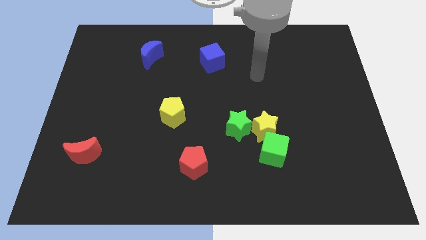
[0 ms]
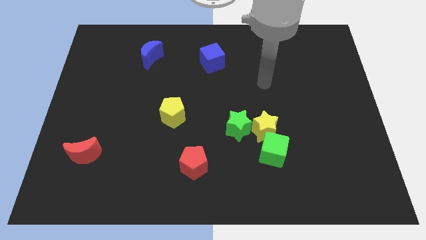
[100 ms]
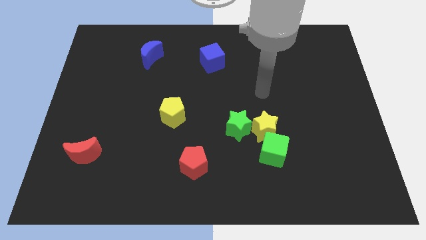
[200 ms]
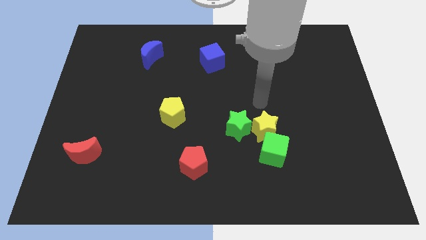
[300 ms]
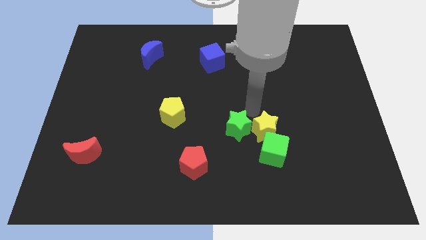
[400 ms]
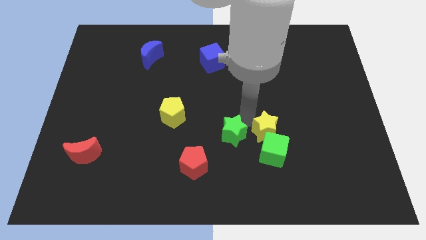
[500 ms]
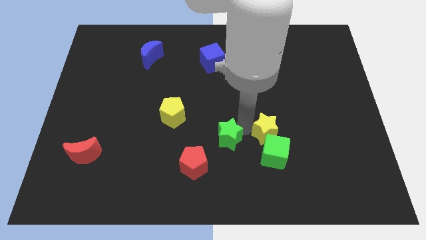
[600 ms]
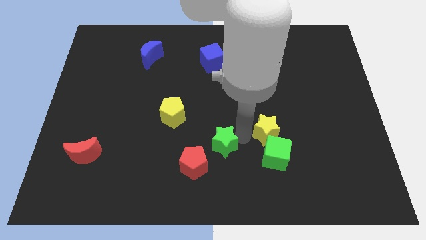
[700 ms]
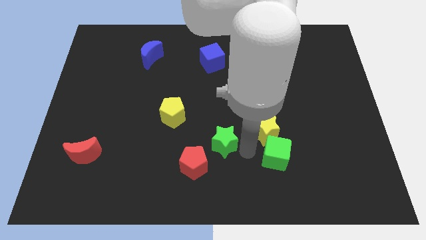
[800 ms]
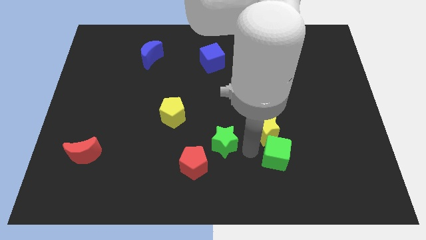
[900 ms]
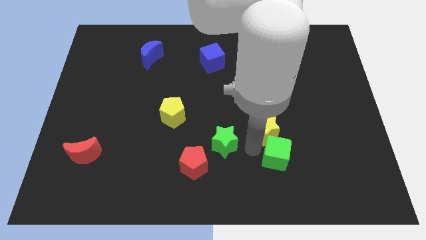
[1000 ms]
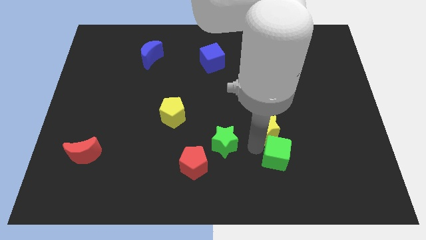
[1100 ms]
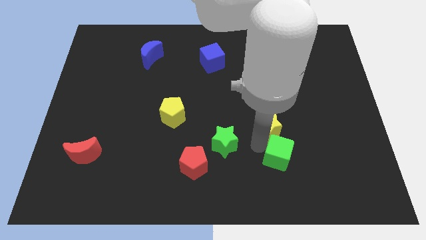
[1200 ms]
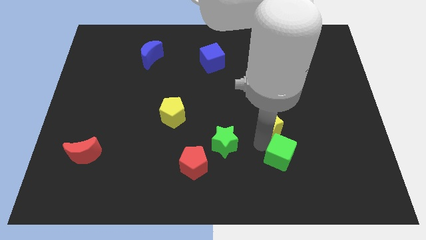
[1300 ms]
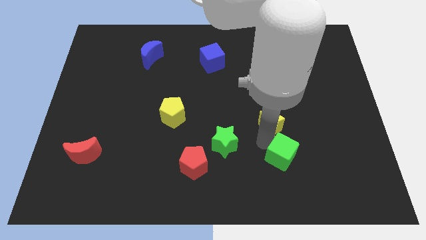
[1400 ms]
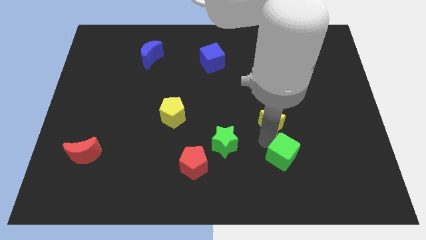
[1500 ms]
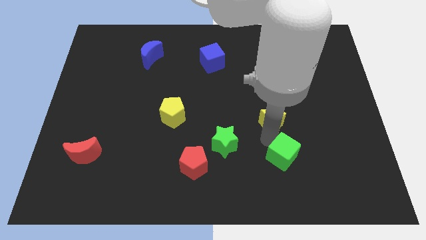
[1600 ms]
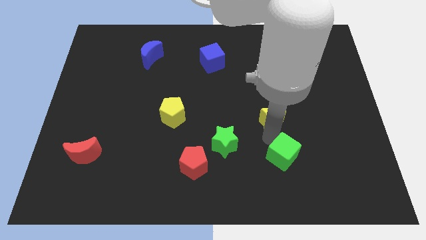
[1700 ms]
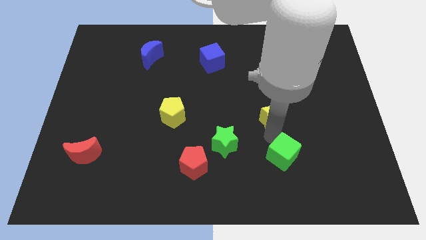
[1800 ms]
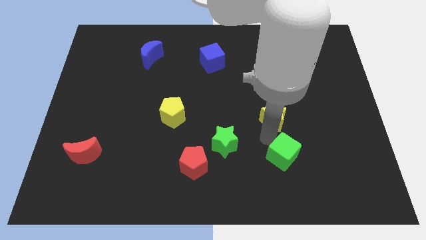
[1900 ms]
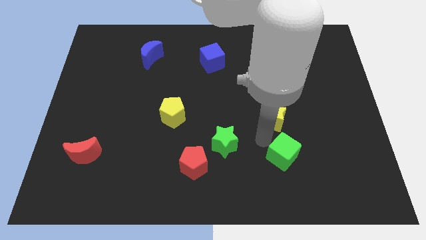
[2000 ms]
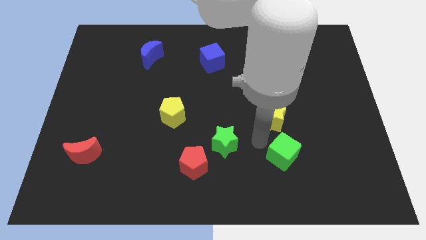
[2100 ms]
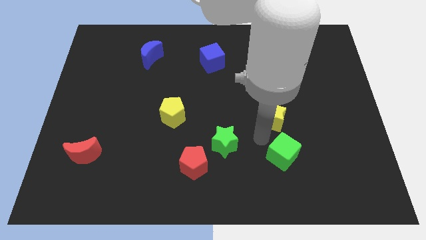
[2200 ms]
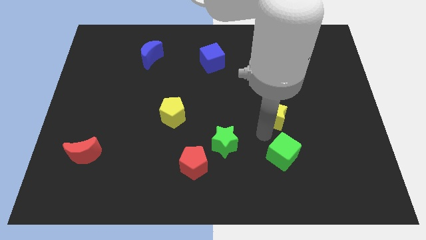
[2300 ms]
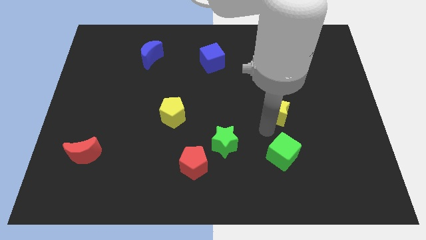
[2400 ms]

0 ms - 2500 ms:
pull the yellow star apart from the green star and green cube

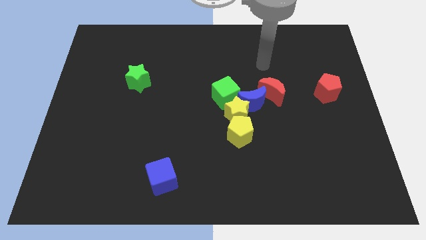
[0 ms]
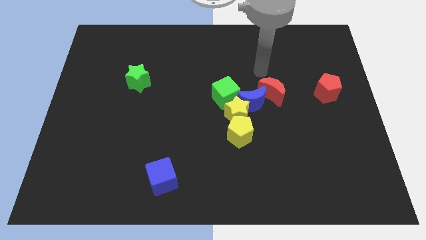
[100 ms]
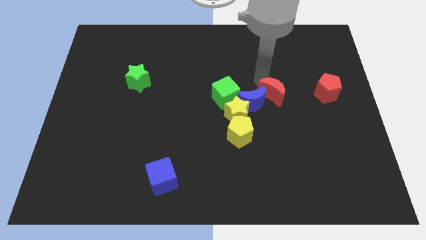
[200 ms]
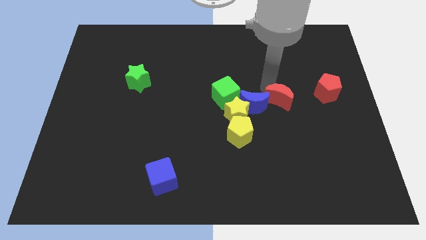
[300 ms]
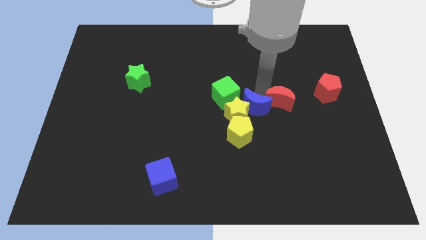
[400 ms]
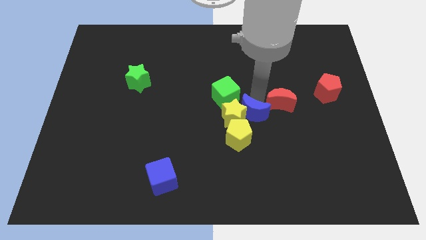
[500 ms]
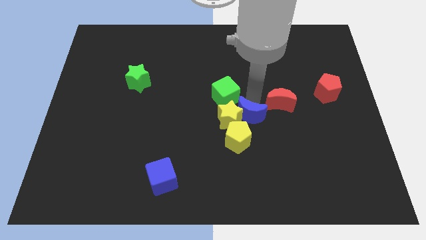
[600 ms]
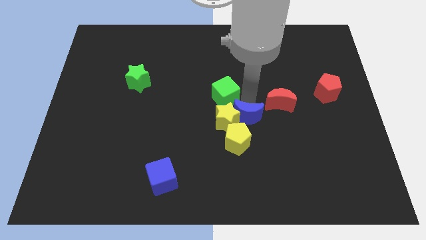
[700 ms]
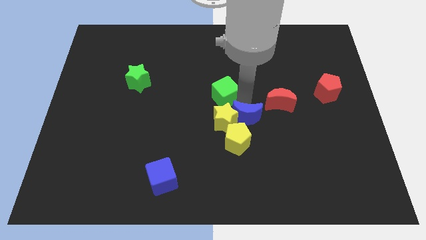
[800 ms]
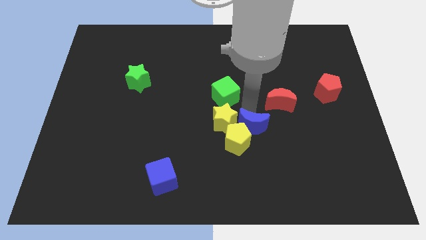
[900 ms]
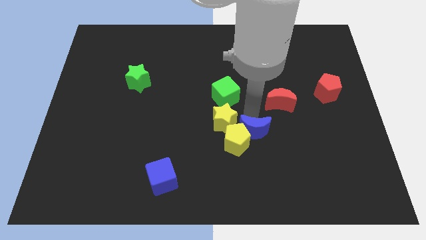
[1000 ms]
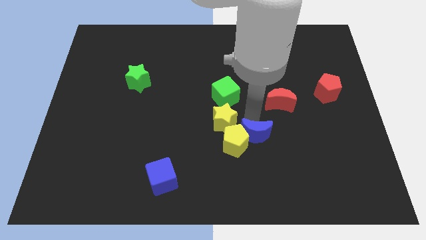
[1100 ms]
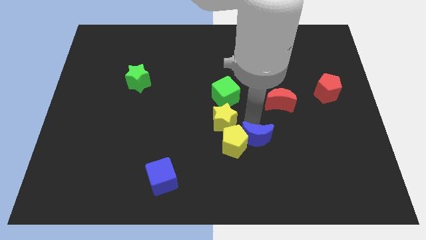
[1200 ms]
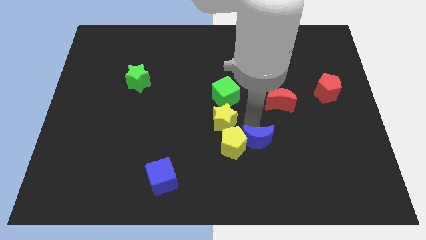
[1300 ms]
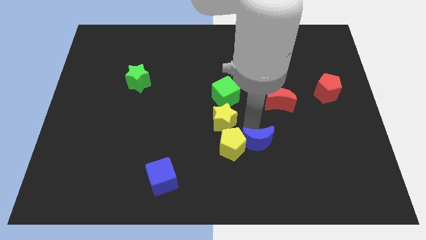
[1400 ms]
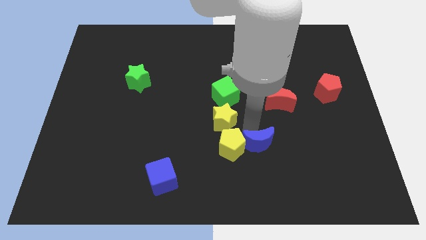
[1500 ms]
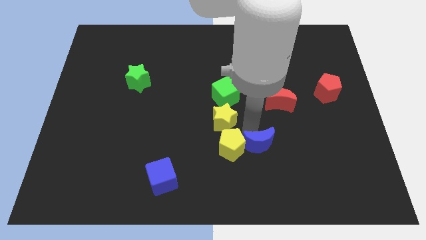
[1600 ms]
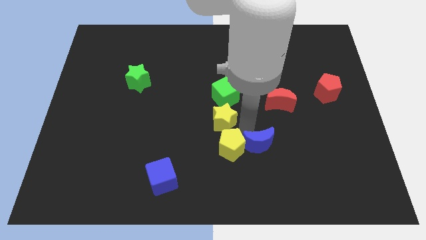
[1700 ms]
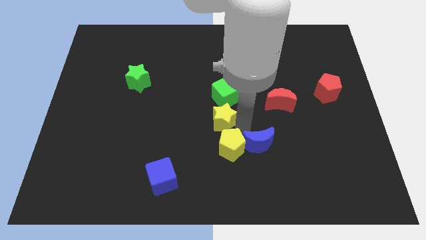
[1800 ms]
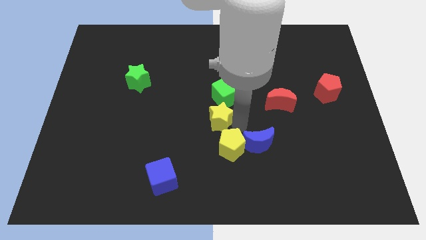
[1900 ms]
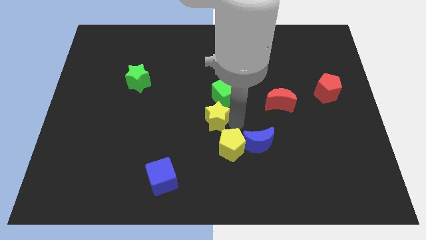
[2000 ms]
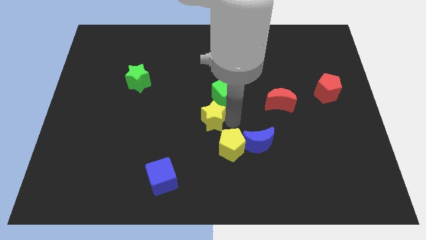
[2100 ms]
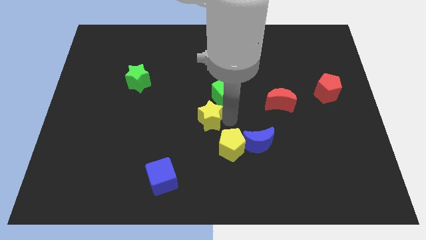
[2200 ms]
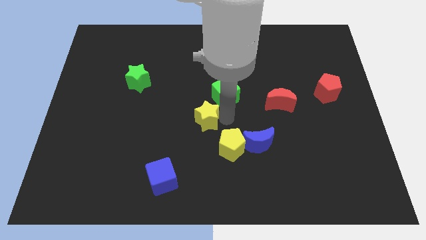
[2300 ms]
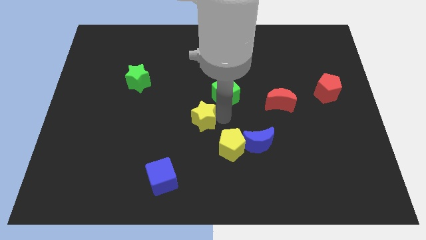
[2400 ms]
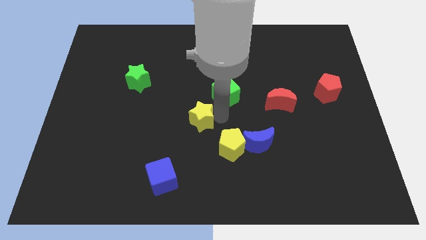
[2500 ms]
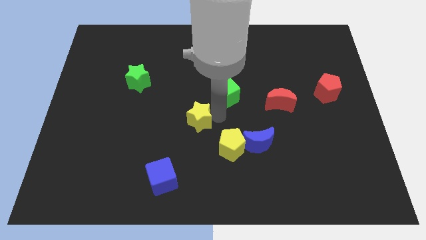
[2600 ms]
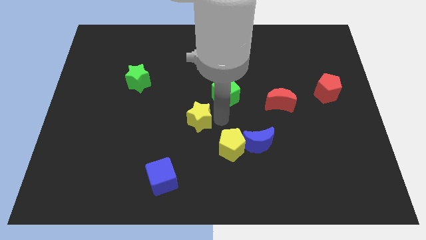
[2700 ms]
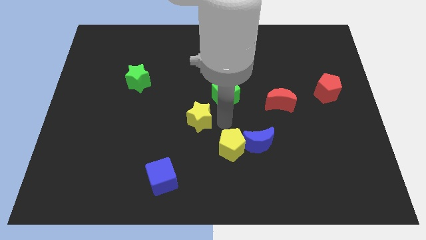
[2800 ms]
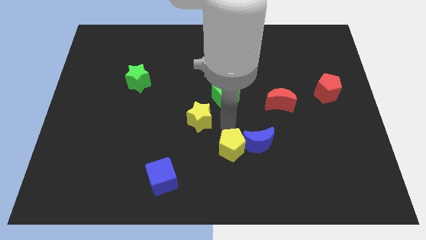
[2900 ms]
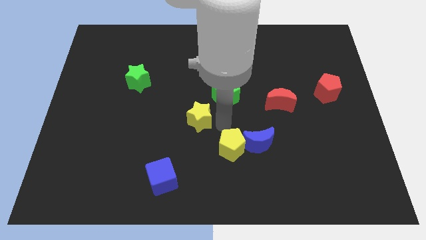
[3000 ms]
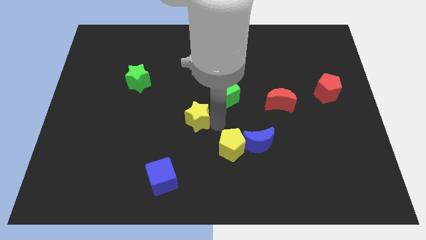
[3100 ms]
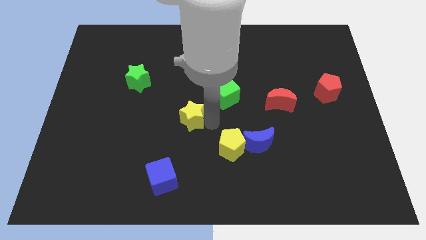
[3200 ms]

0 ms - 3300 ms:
pull the yellow star apart from the group

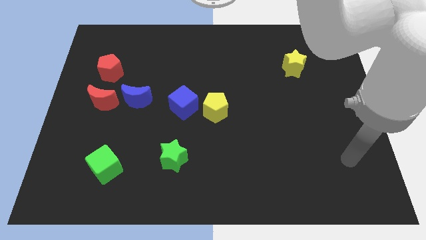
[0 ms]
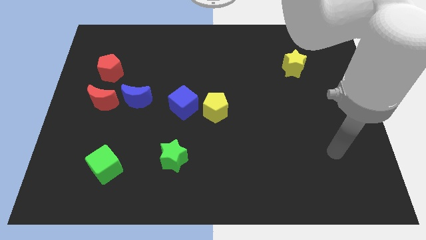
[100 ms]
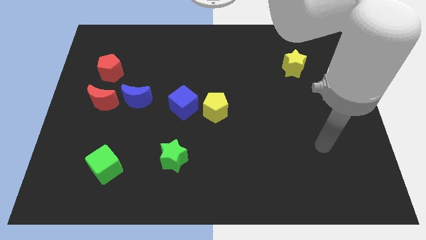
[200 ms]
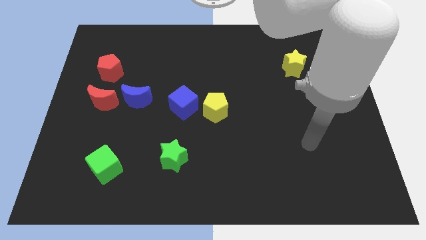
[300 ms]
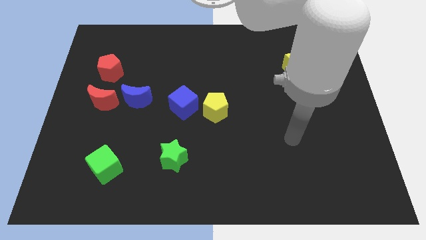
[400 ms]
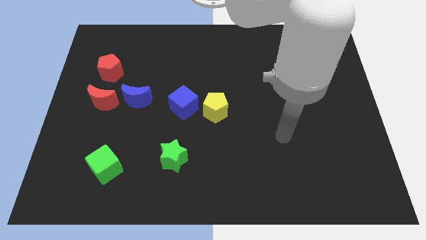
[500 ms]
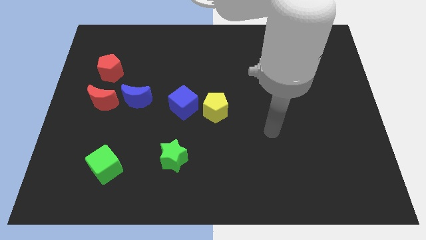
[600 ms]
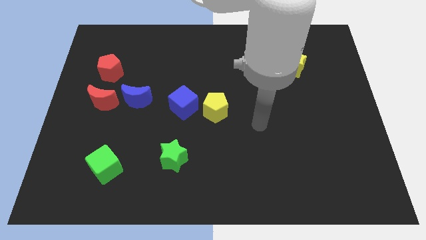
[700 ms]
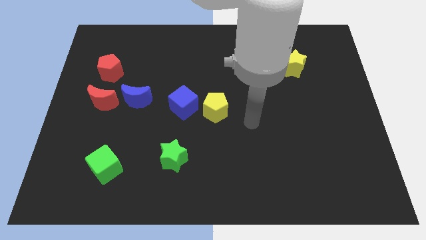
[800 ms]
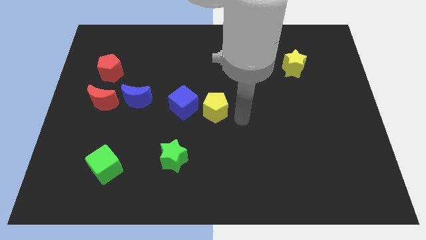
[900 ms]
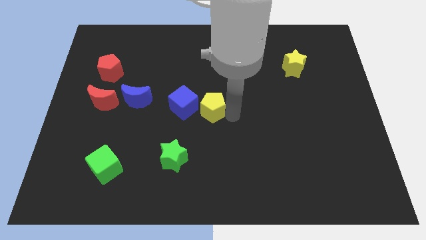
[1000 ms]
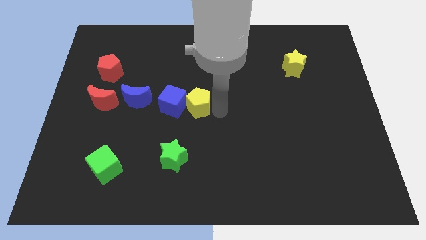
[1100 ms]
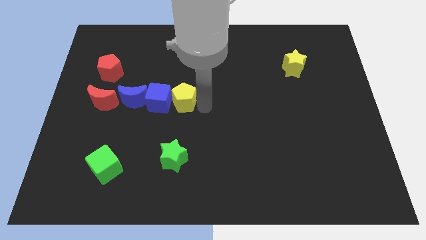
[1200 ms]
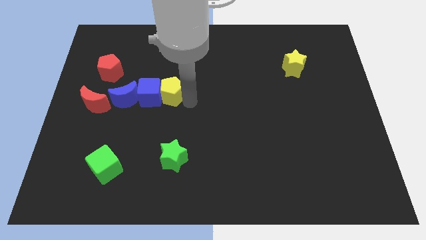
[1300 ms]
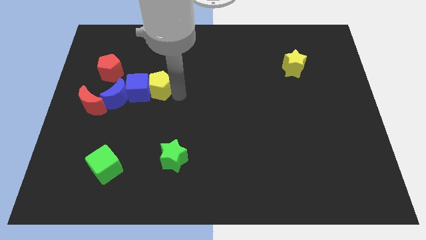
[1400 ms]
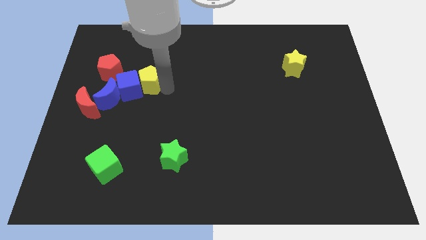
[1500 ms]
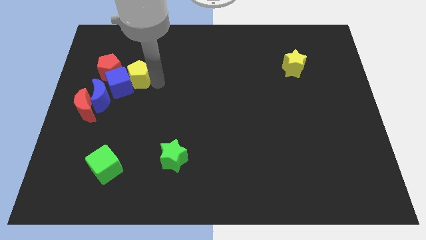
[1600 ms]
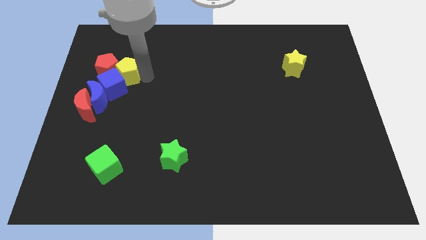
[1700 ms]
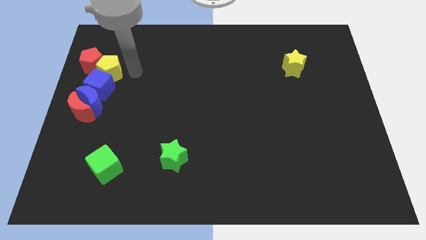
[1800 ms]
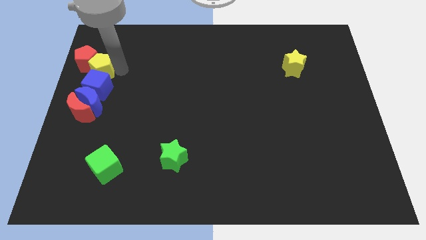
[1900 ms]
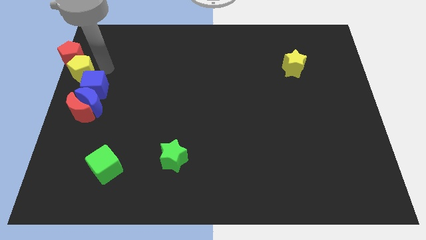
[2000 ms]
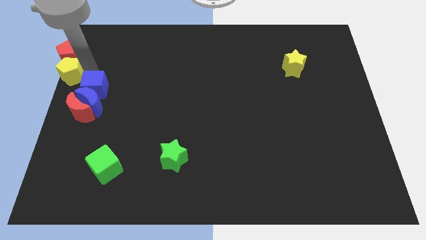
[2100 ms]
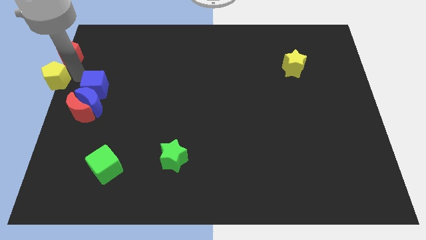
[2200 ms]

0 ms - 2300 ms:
pull the blue cube apart from the yellow pentagon

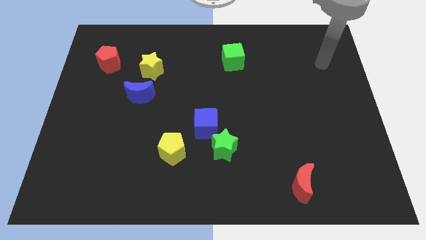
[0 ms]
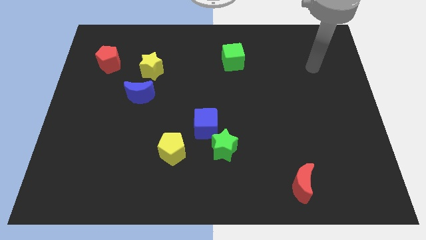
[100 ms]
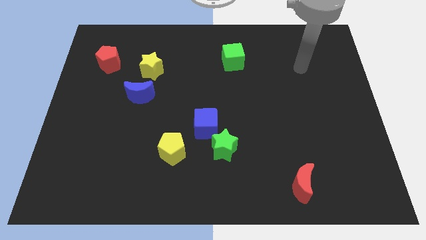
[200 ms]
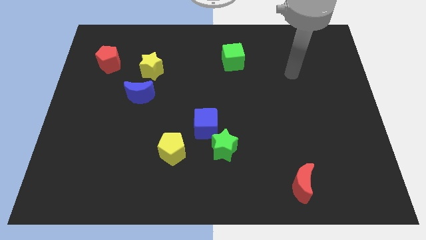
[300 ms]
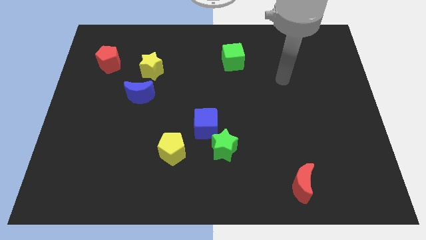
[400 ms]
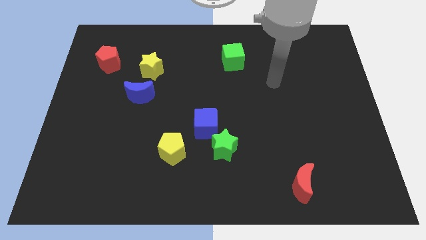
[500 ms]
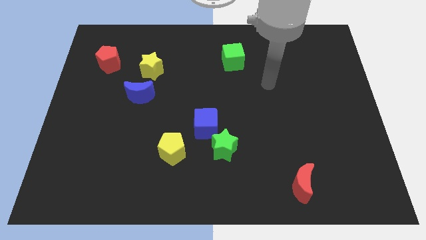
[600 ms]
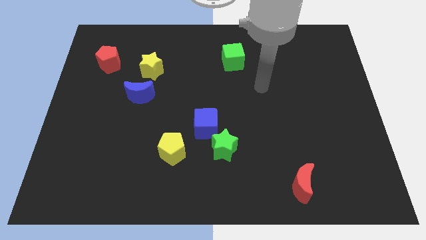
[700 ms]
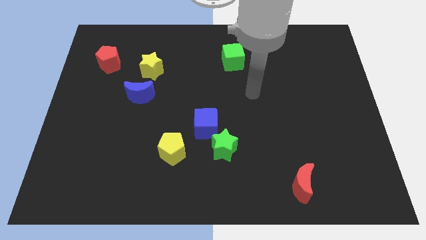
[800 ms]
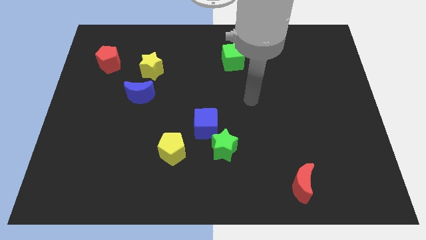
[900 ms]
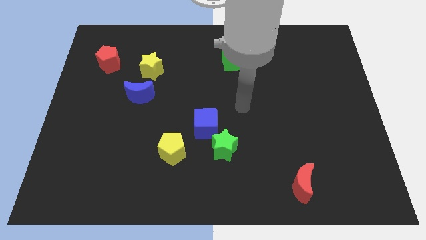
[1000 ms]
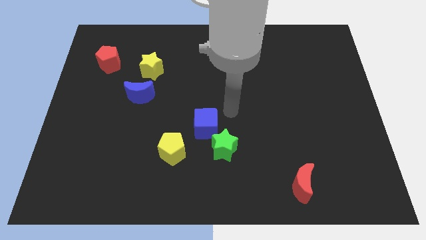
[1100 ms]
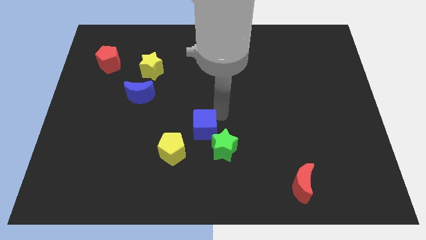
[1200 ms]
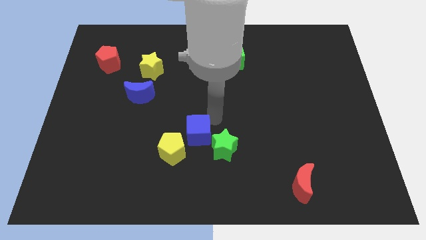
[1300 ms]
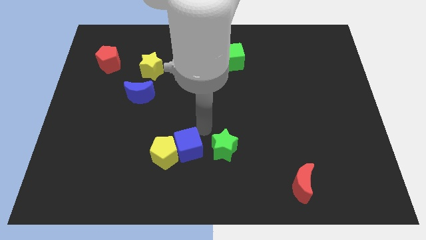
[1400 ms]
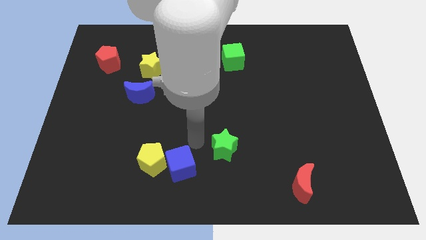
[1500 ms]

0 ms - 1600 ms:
separate the green star from the blue cube
